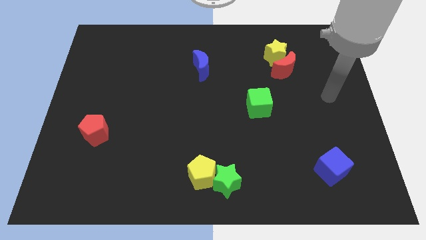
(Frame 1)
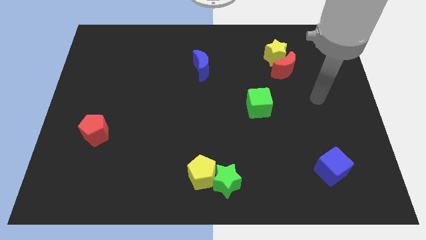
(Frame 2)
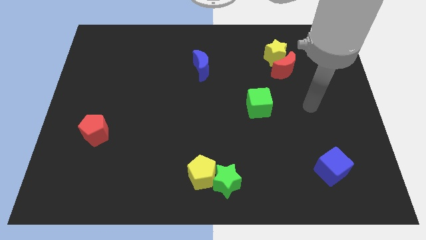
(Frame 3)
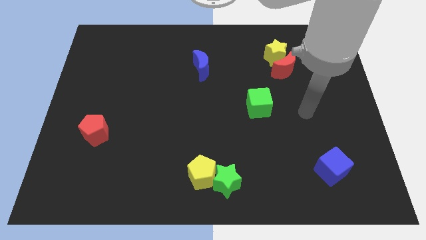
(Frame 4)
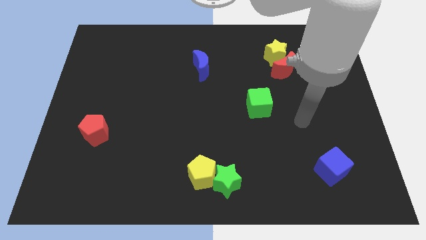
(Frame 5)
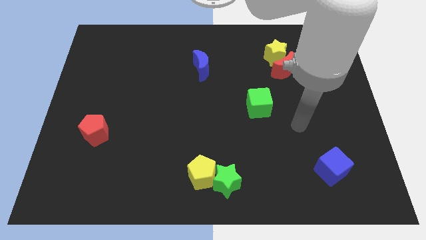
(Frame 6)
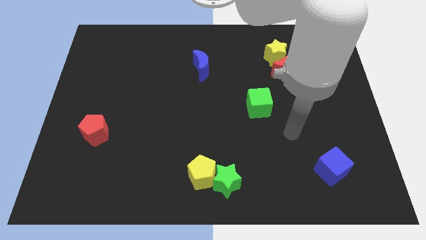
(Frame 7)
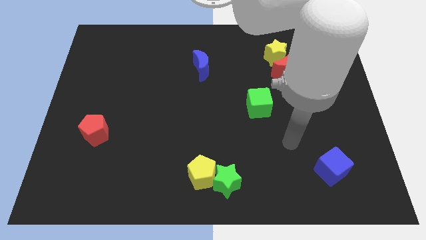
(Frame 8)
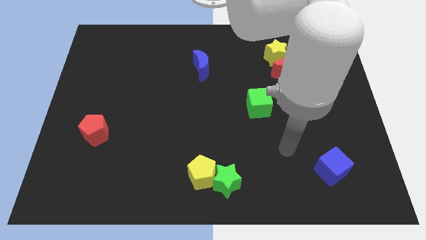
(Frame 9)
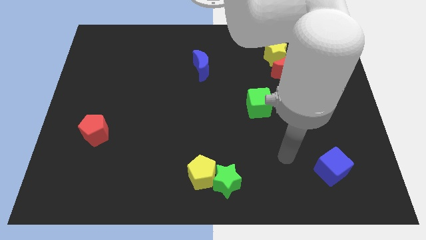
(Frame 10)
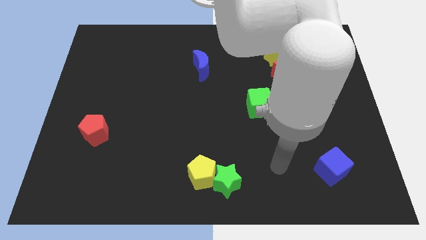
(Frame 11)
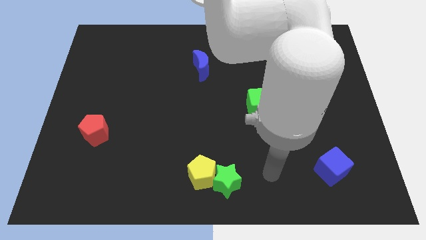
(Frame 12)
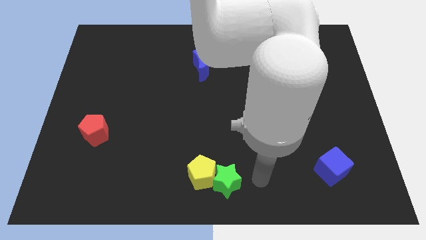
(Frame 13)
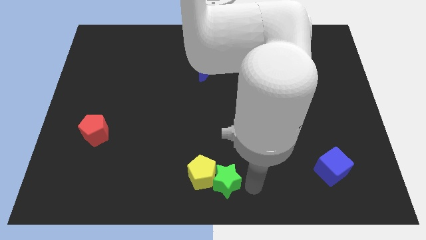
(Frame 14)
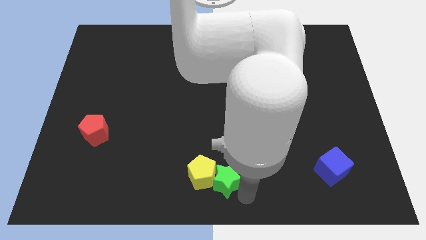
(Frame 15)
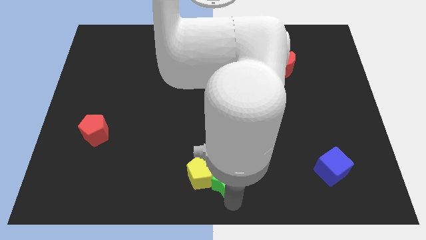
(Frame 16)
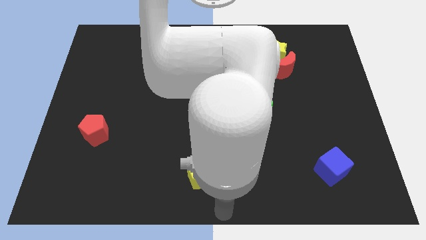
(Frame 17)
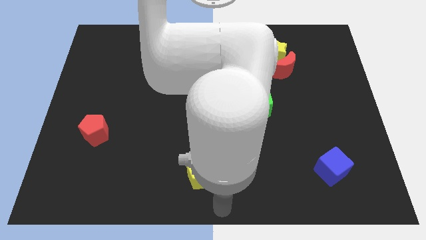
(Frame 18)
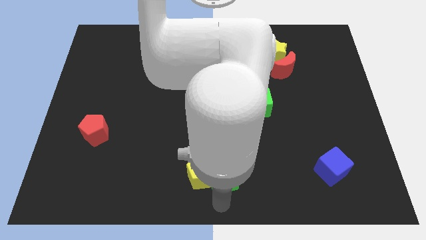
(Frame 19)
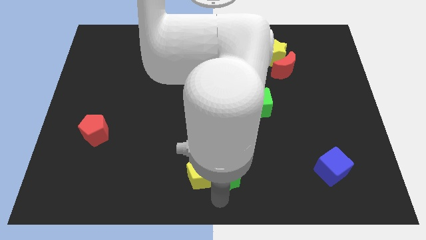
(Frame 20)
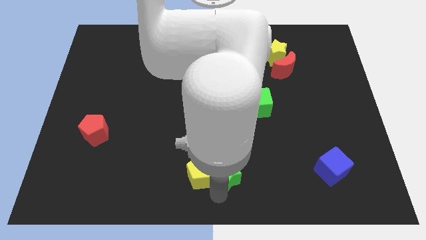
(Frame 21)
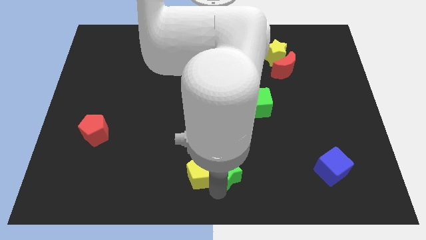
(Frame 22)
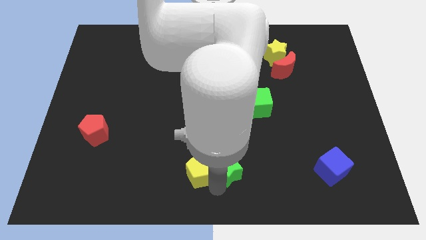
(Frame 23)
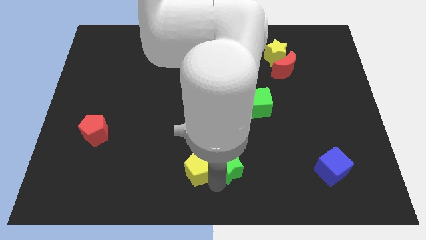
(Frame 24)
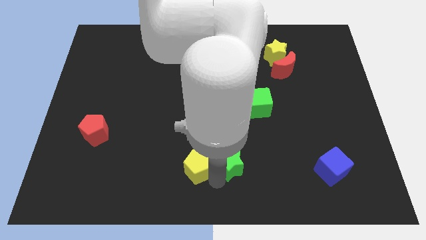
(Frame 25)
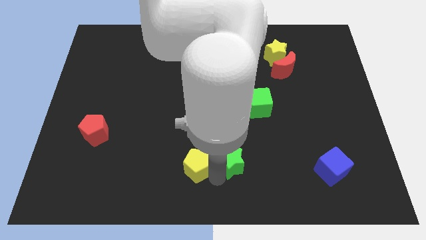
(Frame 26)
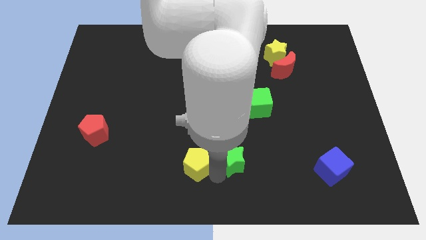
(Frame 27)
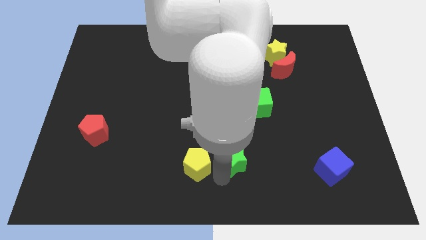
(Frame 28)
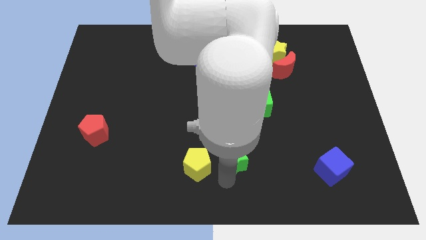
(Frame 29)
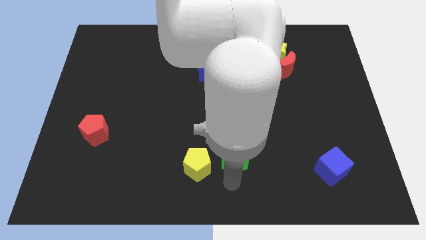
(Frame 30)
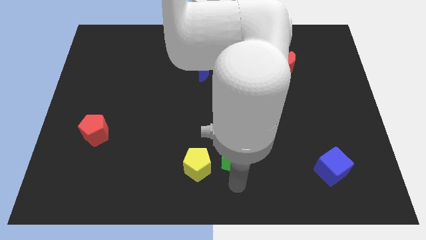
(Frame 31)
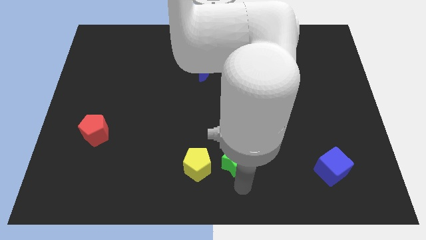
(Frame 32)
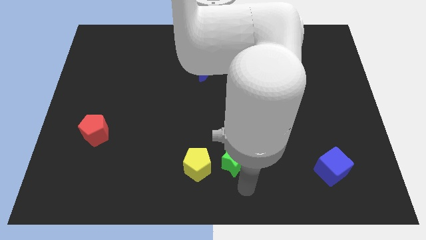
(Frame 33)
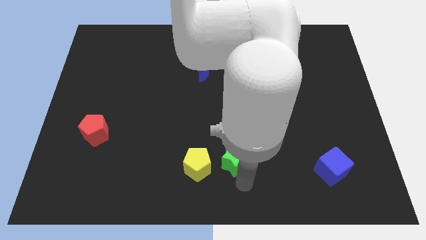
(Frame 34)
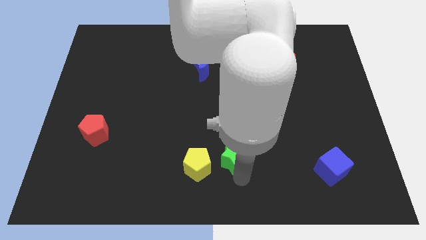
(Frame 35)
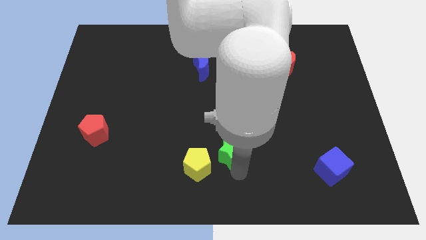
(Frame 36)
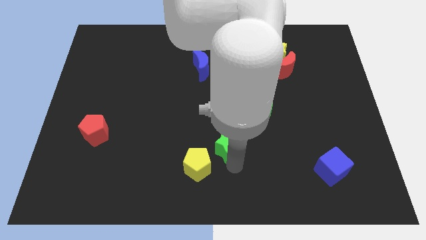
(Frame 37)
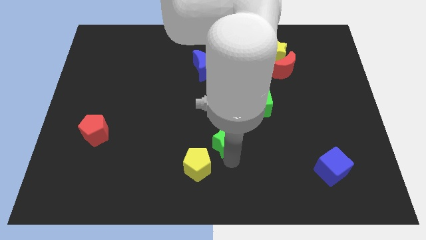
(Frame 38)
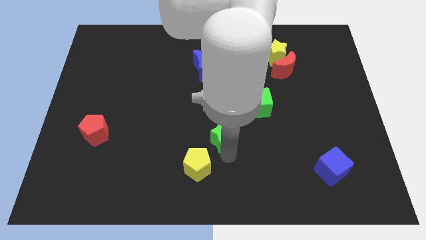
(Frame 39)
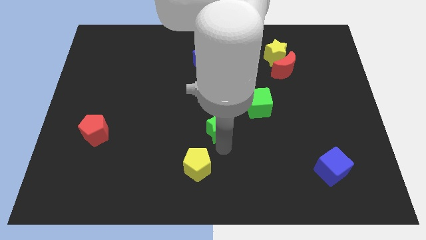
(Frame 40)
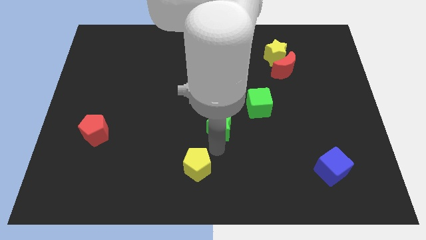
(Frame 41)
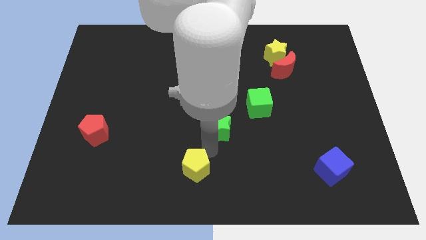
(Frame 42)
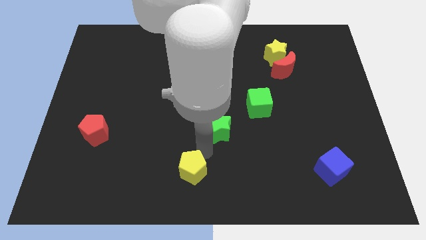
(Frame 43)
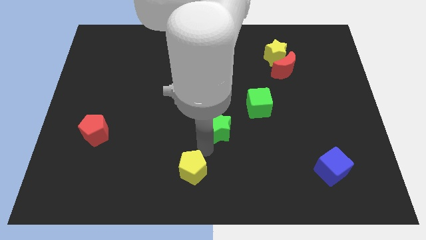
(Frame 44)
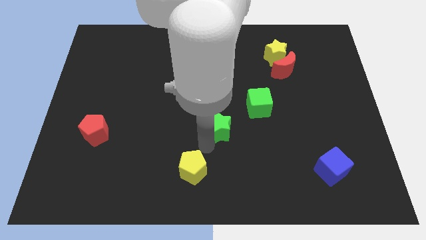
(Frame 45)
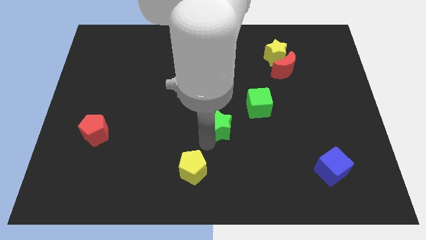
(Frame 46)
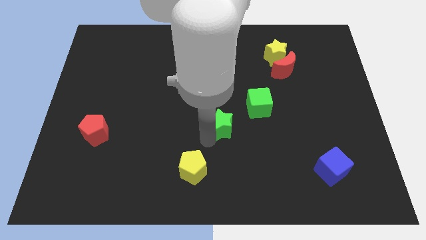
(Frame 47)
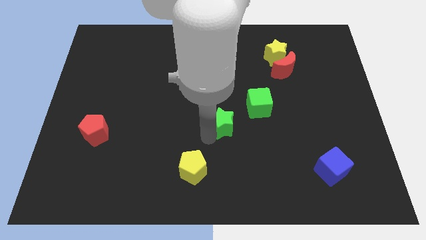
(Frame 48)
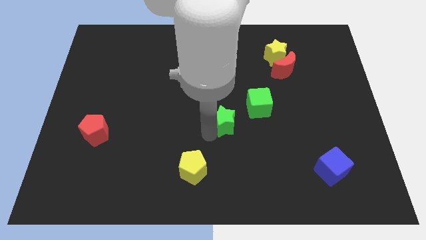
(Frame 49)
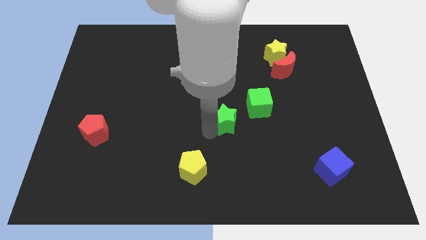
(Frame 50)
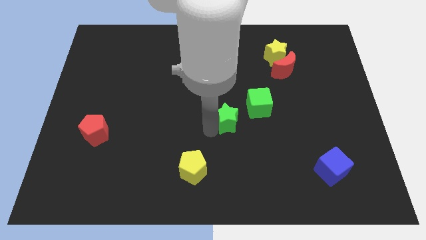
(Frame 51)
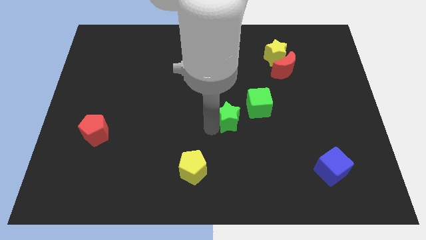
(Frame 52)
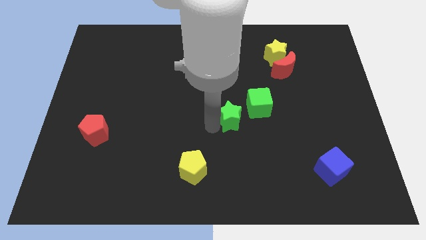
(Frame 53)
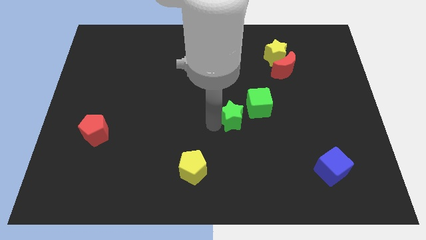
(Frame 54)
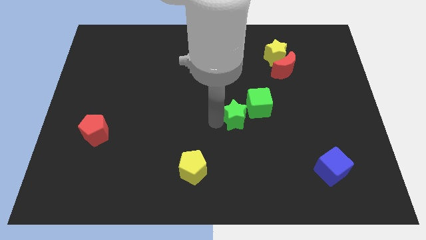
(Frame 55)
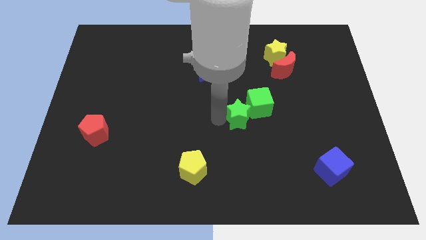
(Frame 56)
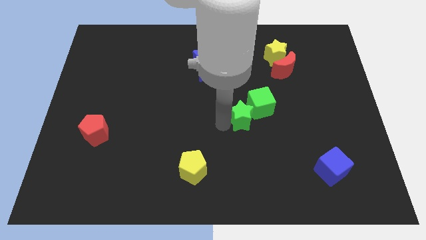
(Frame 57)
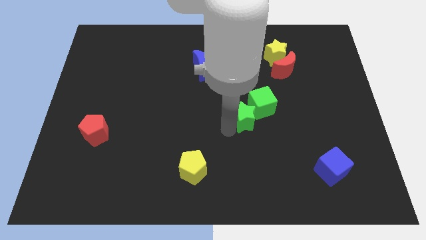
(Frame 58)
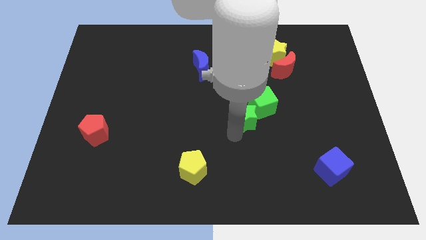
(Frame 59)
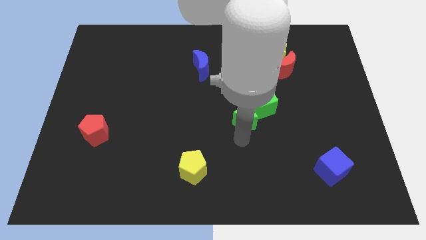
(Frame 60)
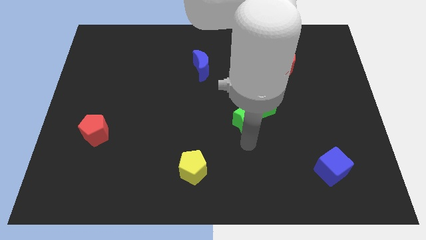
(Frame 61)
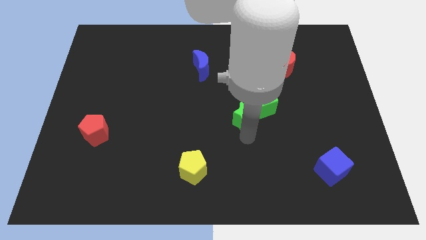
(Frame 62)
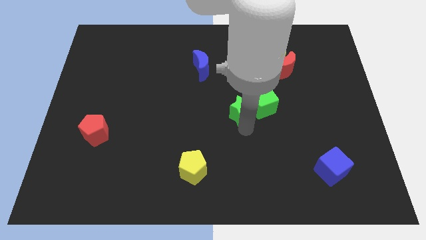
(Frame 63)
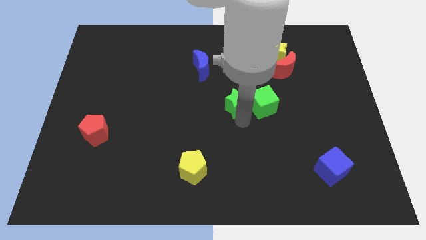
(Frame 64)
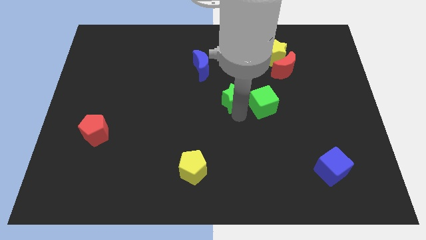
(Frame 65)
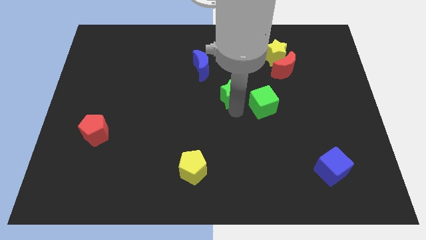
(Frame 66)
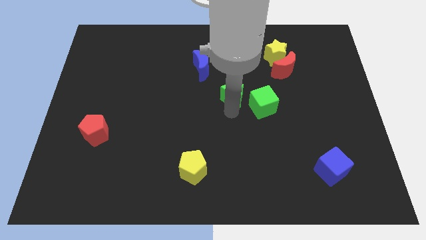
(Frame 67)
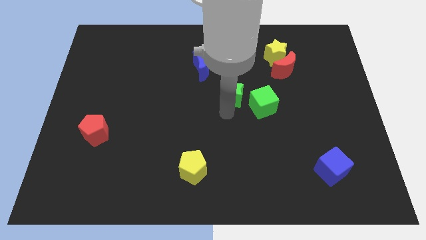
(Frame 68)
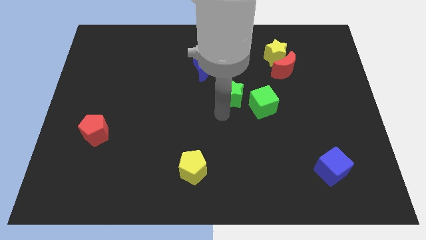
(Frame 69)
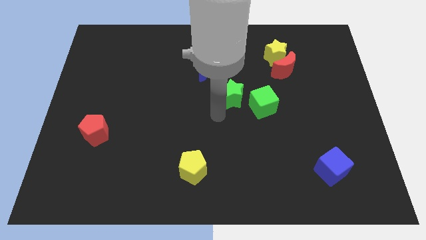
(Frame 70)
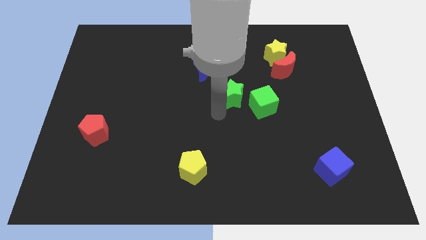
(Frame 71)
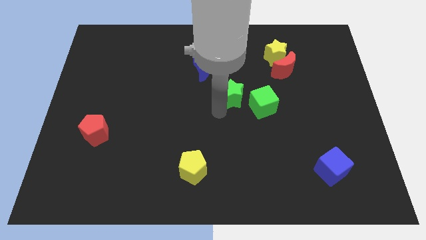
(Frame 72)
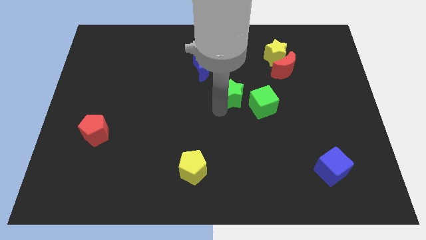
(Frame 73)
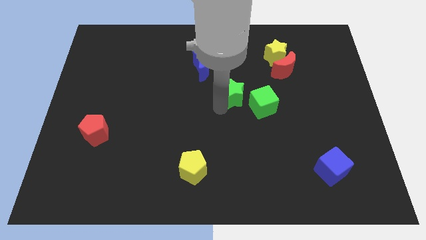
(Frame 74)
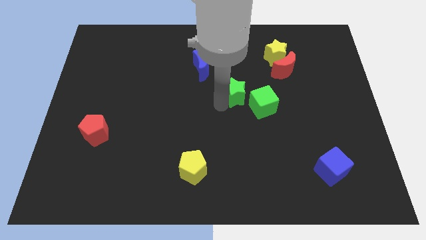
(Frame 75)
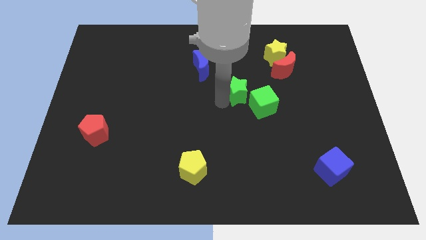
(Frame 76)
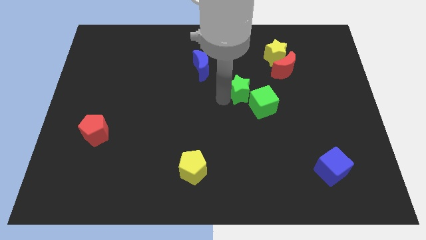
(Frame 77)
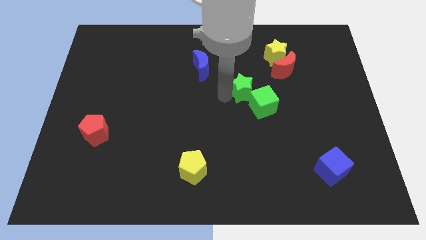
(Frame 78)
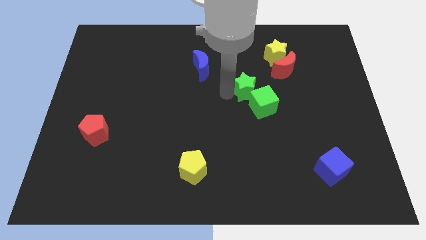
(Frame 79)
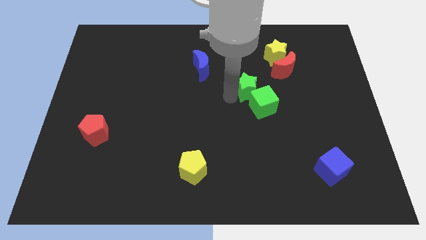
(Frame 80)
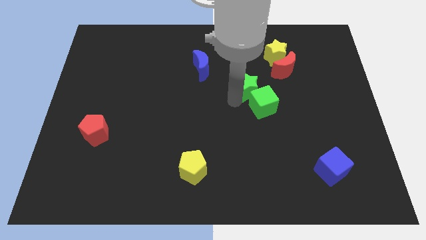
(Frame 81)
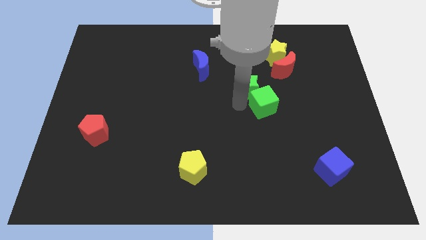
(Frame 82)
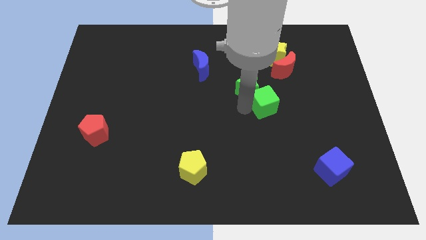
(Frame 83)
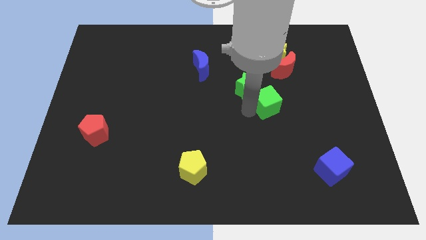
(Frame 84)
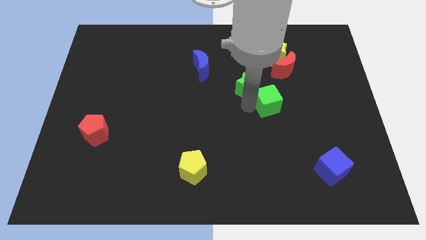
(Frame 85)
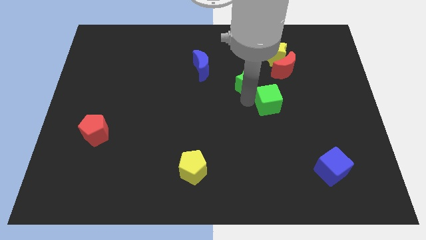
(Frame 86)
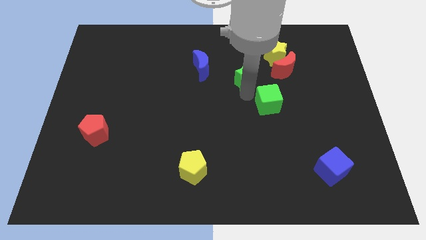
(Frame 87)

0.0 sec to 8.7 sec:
put the green star to the right side of the blue moon
